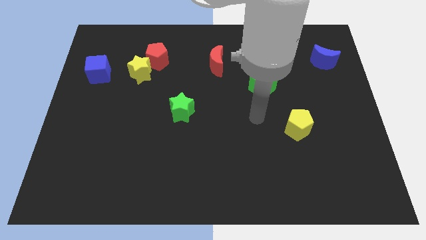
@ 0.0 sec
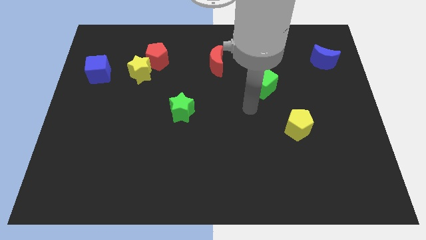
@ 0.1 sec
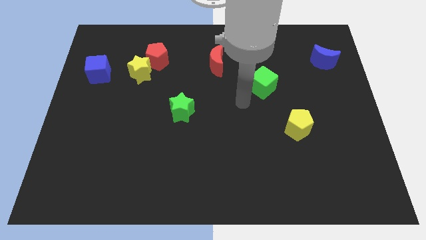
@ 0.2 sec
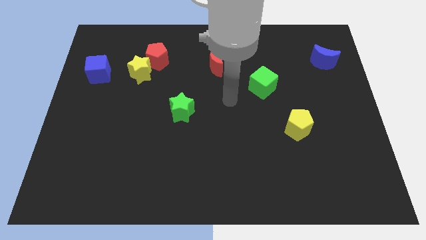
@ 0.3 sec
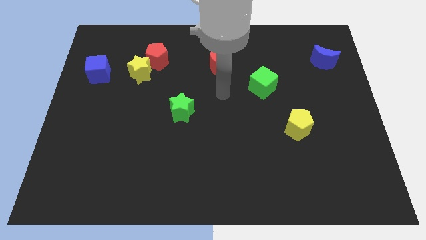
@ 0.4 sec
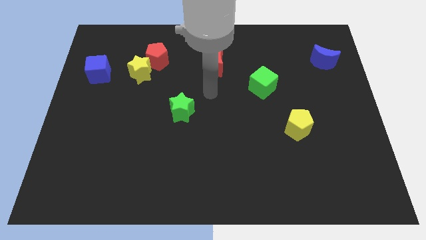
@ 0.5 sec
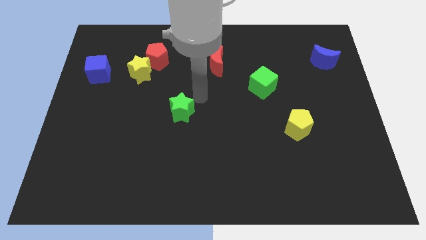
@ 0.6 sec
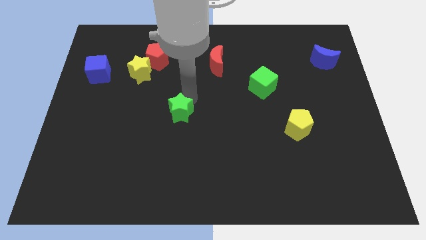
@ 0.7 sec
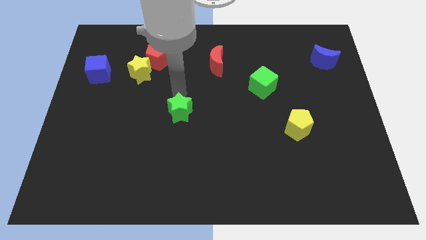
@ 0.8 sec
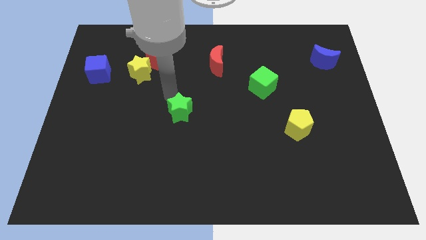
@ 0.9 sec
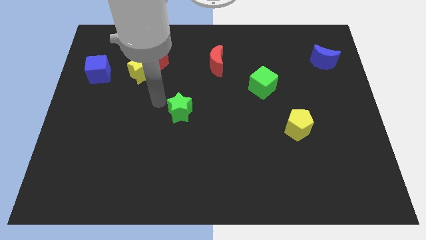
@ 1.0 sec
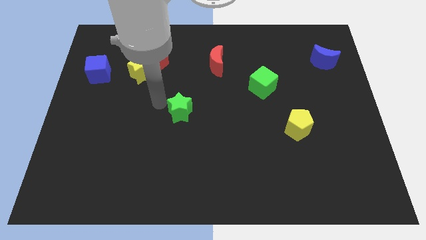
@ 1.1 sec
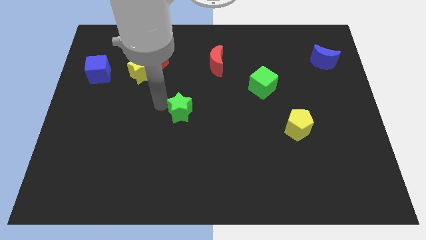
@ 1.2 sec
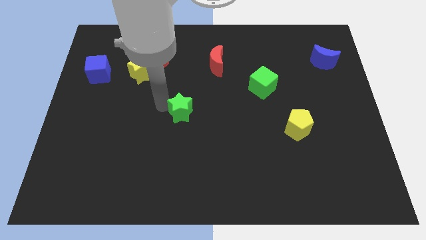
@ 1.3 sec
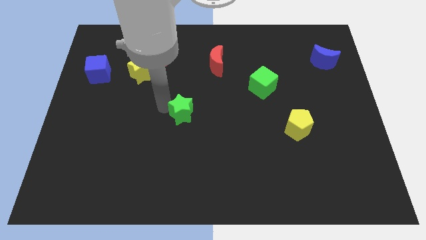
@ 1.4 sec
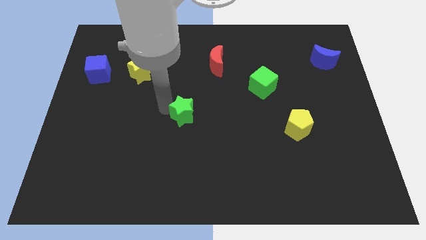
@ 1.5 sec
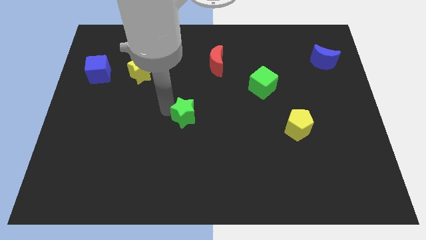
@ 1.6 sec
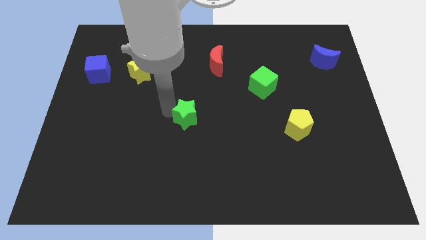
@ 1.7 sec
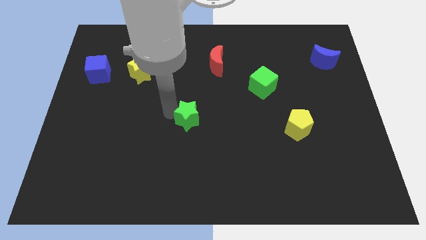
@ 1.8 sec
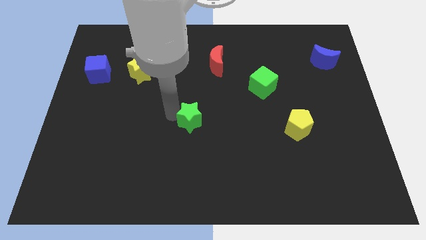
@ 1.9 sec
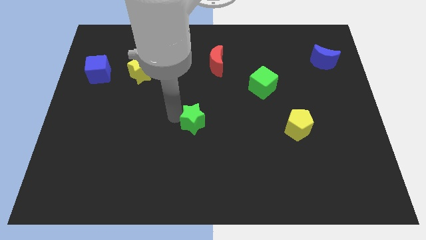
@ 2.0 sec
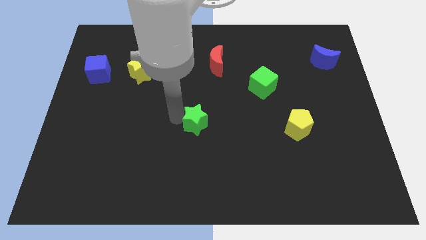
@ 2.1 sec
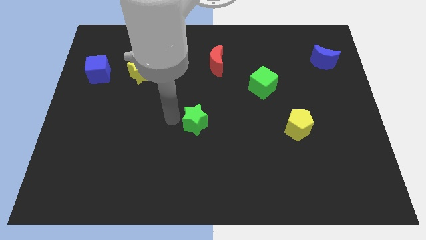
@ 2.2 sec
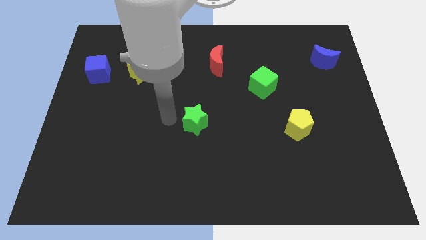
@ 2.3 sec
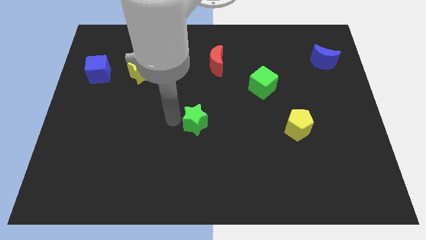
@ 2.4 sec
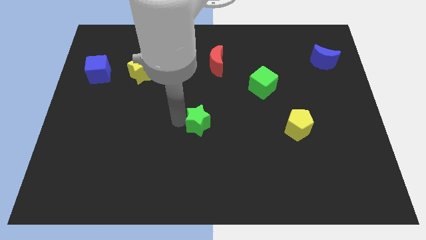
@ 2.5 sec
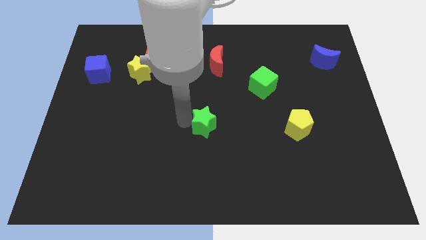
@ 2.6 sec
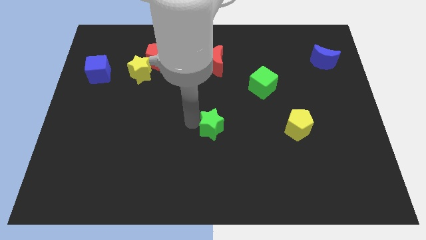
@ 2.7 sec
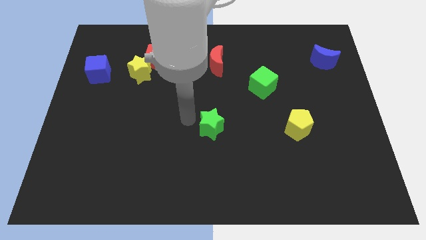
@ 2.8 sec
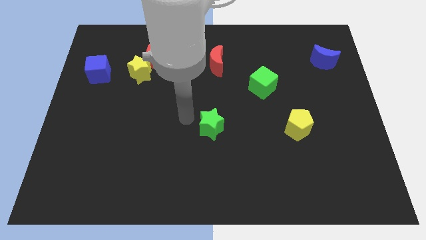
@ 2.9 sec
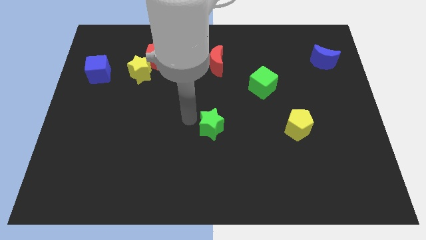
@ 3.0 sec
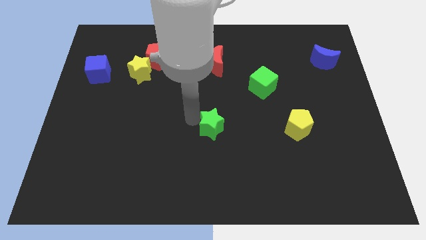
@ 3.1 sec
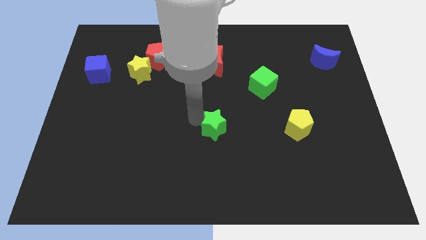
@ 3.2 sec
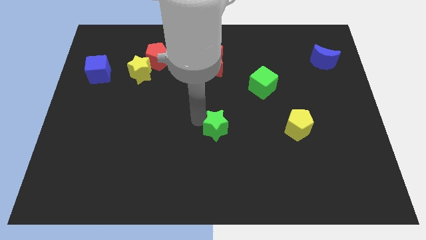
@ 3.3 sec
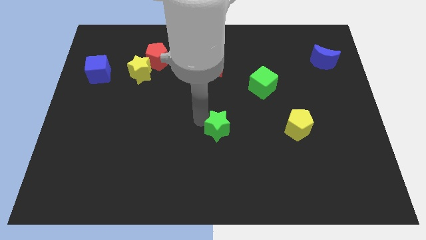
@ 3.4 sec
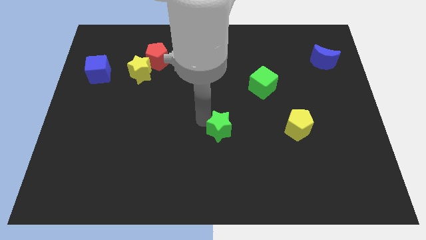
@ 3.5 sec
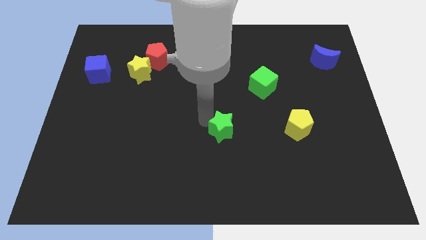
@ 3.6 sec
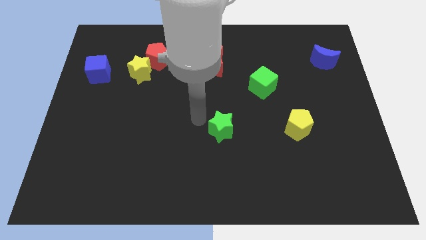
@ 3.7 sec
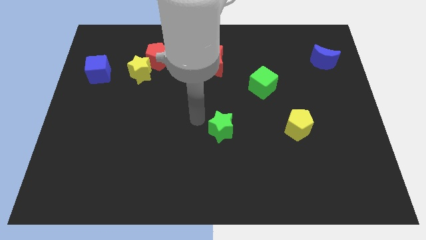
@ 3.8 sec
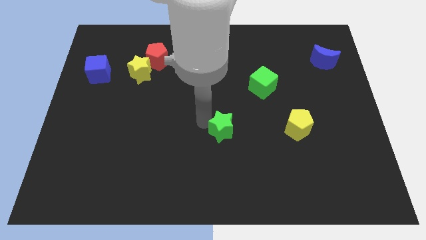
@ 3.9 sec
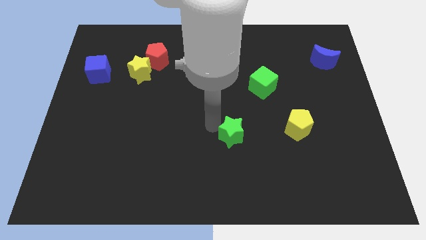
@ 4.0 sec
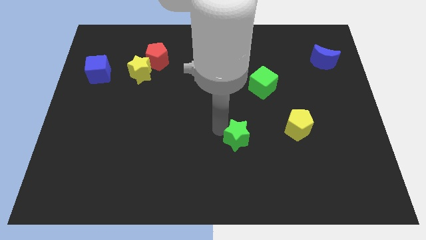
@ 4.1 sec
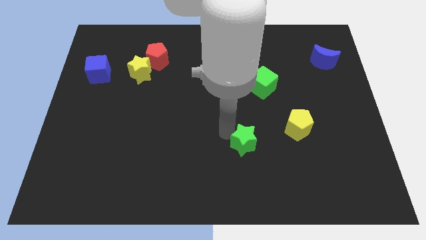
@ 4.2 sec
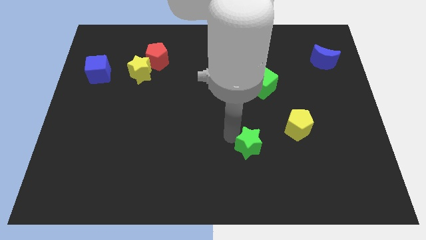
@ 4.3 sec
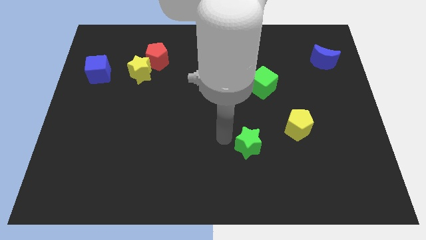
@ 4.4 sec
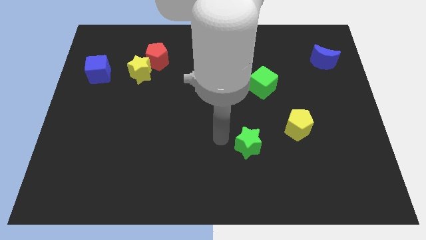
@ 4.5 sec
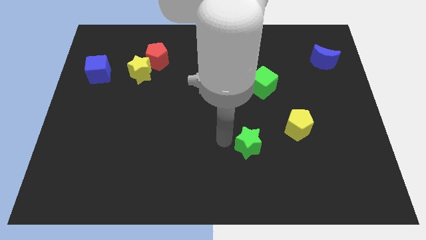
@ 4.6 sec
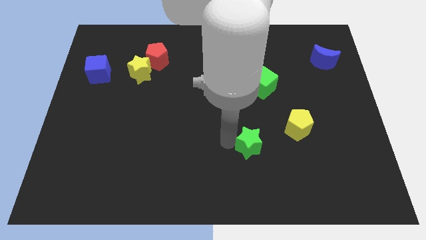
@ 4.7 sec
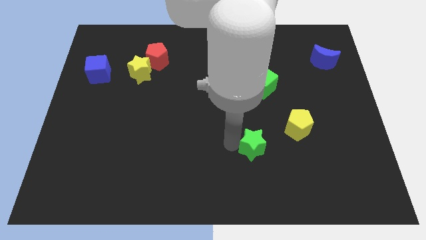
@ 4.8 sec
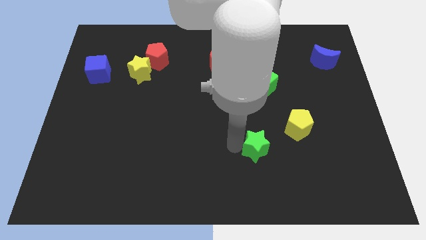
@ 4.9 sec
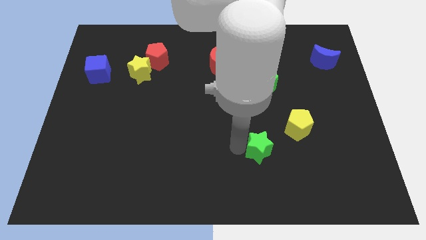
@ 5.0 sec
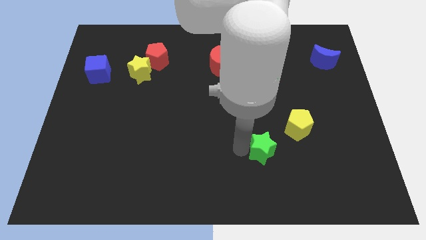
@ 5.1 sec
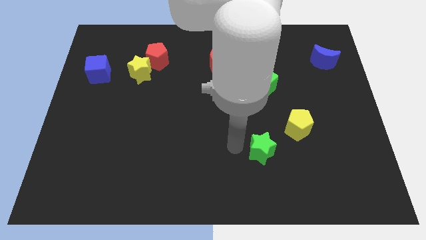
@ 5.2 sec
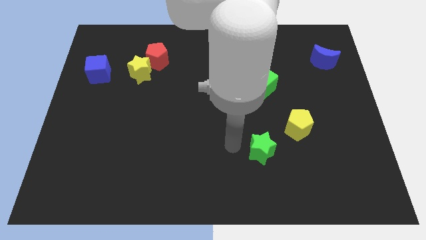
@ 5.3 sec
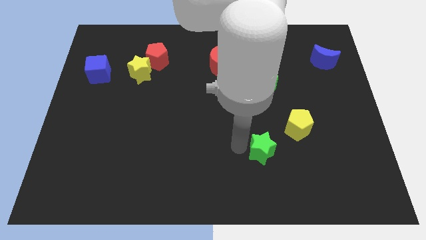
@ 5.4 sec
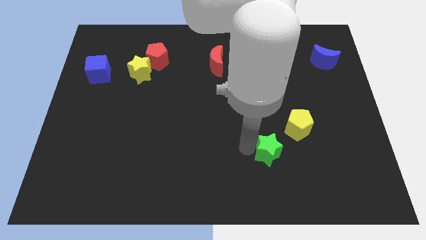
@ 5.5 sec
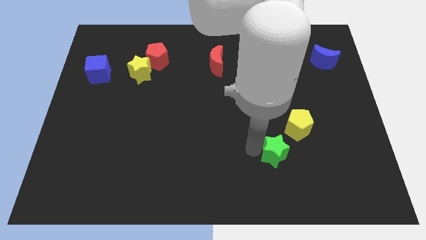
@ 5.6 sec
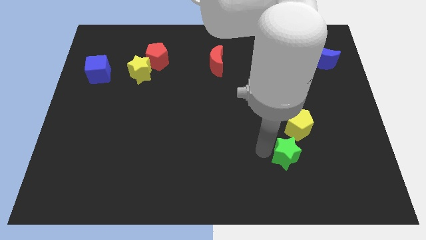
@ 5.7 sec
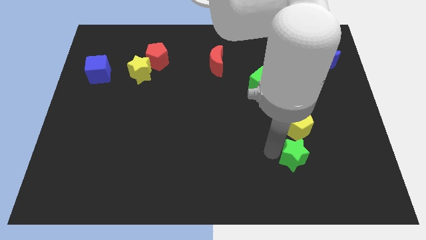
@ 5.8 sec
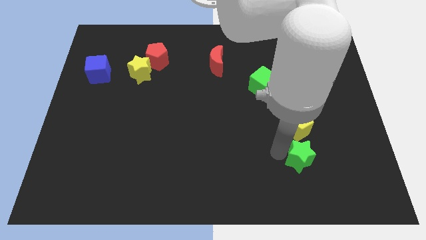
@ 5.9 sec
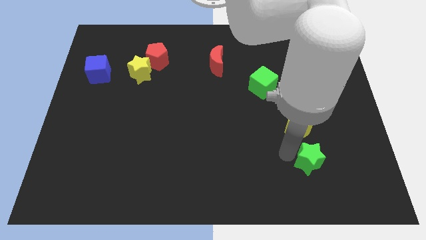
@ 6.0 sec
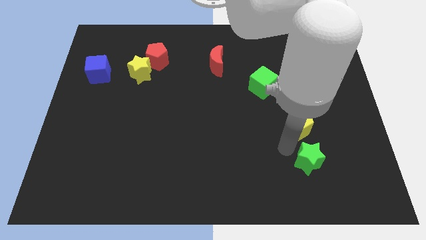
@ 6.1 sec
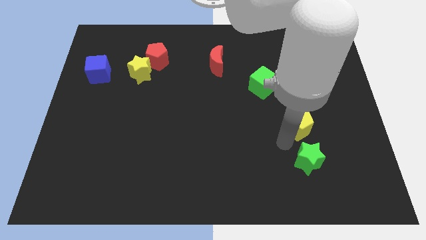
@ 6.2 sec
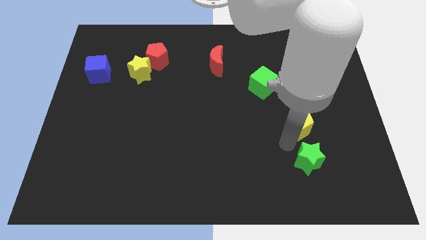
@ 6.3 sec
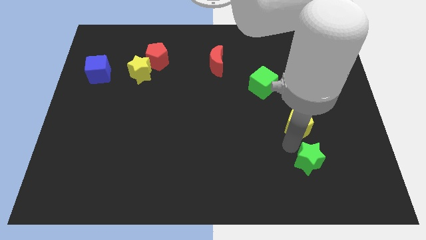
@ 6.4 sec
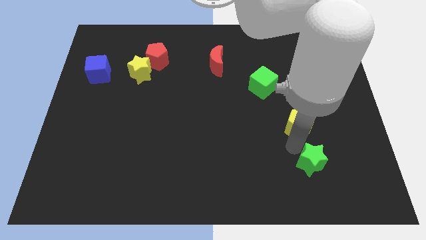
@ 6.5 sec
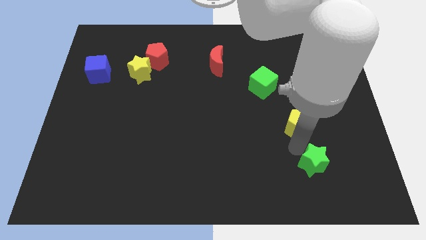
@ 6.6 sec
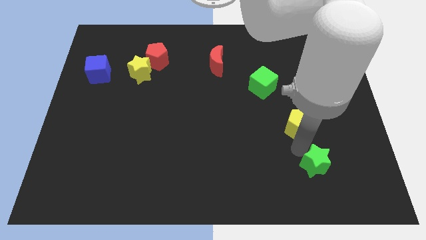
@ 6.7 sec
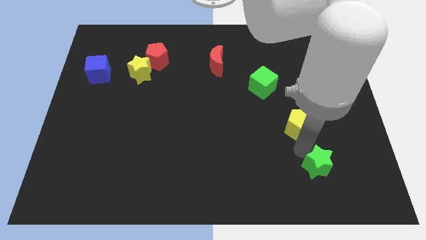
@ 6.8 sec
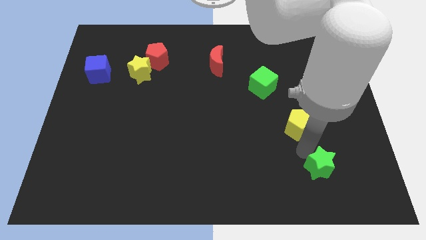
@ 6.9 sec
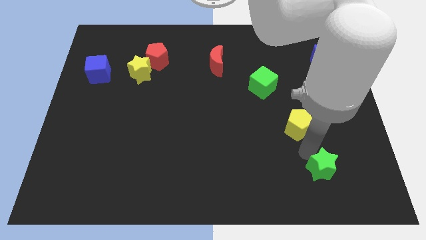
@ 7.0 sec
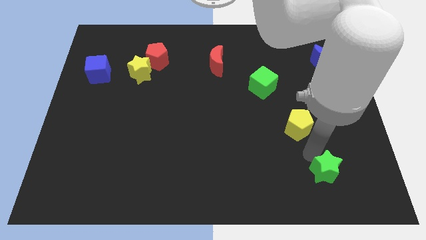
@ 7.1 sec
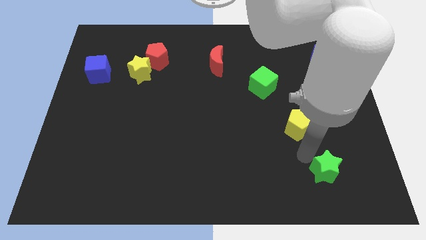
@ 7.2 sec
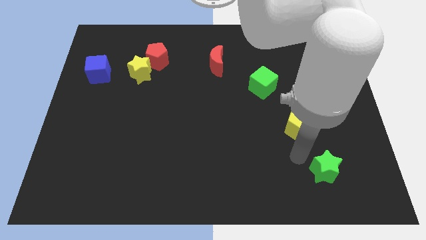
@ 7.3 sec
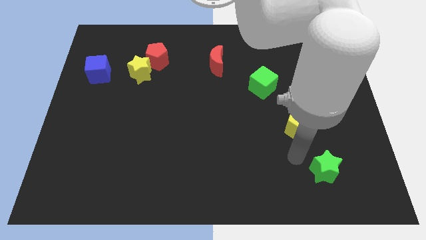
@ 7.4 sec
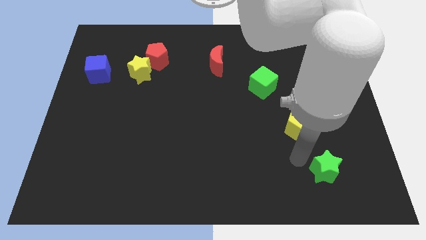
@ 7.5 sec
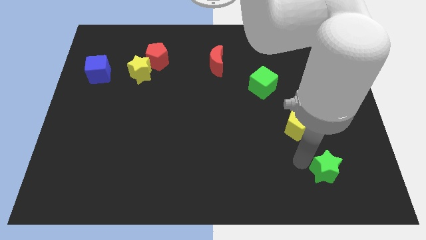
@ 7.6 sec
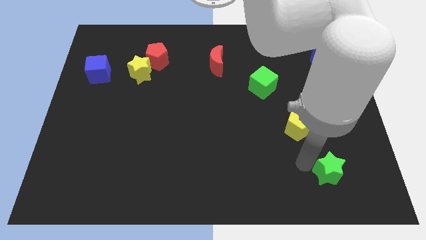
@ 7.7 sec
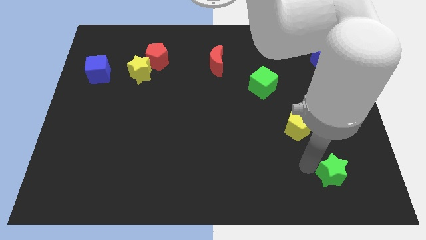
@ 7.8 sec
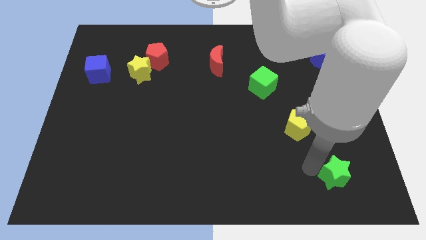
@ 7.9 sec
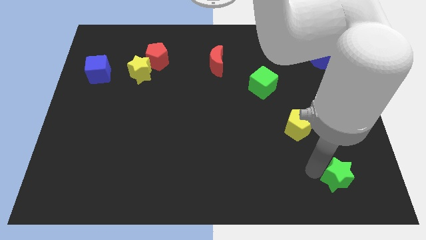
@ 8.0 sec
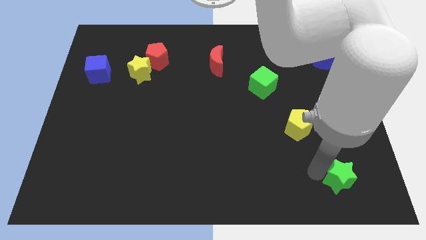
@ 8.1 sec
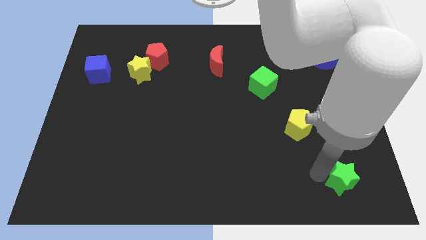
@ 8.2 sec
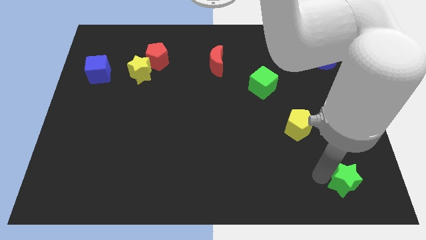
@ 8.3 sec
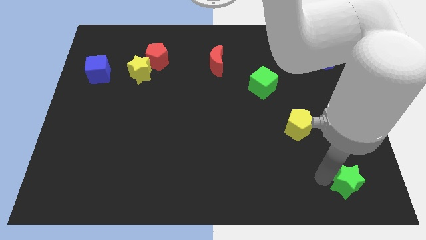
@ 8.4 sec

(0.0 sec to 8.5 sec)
push the green star to the bottom right of the board
